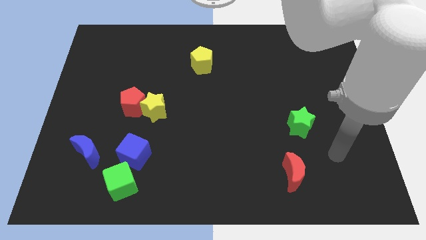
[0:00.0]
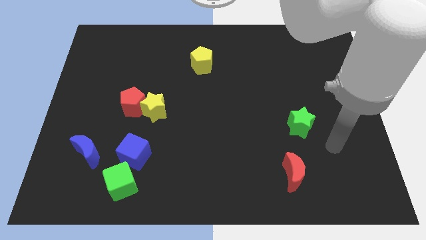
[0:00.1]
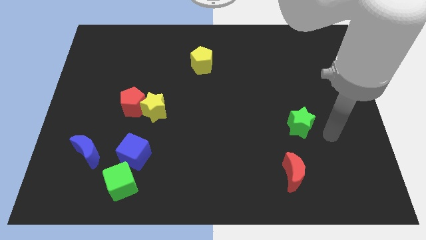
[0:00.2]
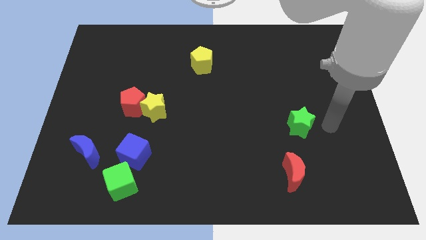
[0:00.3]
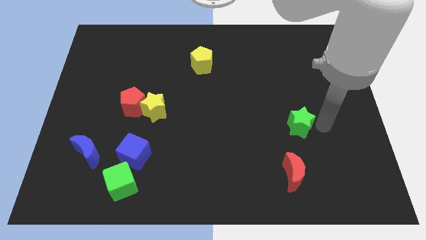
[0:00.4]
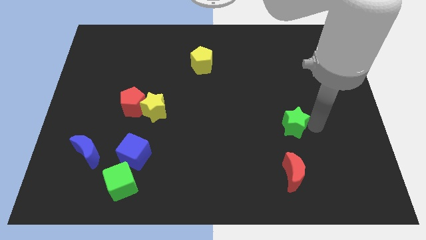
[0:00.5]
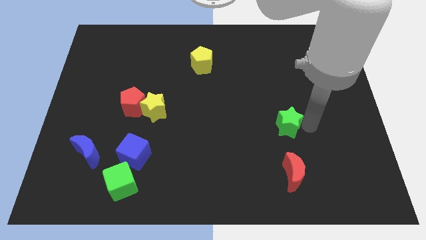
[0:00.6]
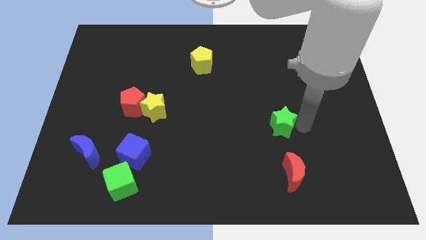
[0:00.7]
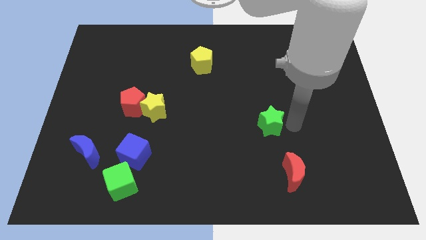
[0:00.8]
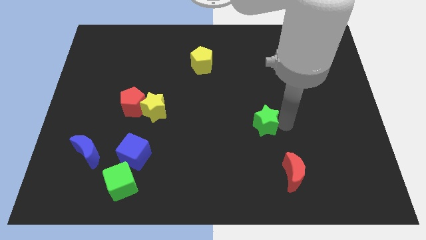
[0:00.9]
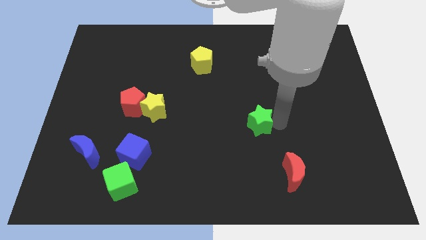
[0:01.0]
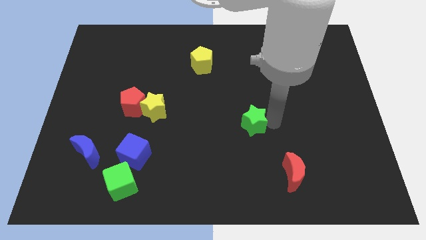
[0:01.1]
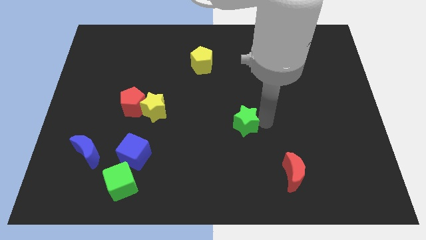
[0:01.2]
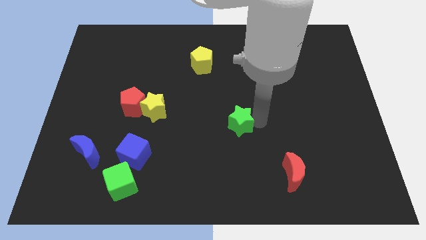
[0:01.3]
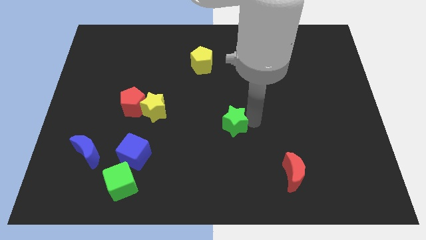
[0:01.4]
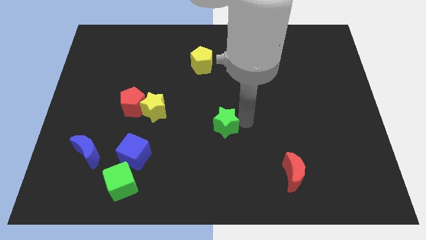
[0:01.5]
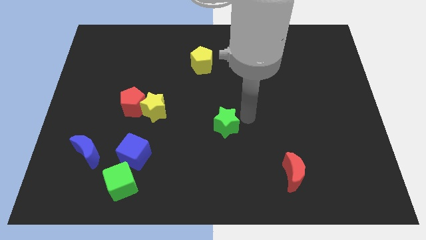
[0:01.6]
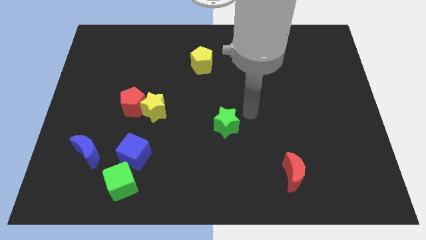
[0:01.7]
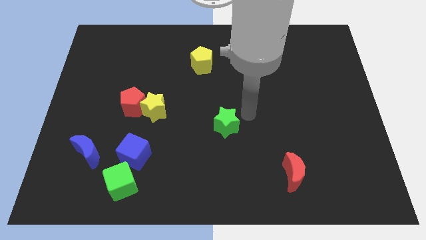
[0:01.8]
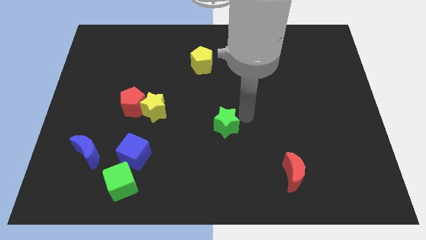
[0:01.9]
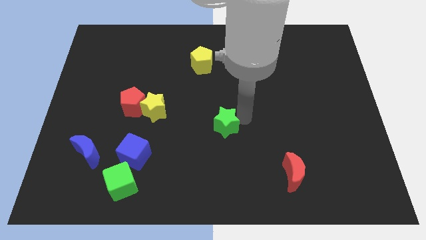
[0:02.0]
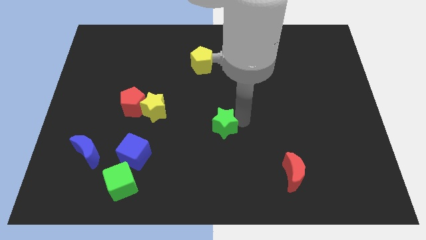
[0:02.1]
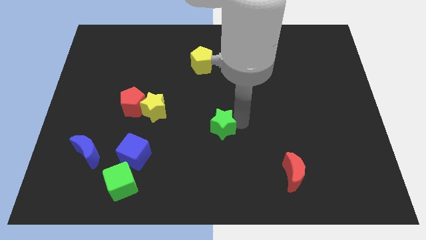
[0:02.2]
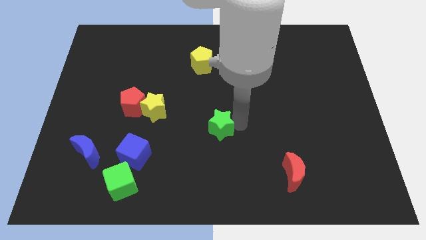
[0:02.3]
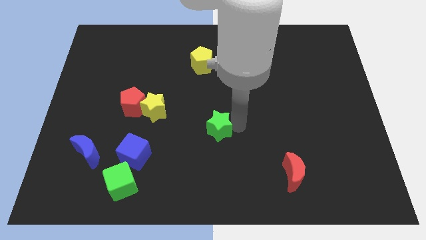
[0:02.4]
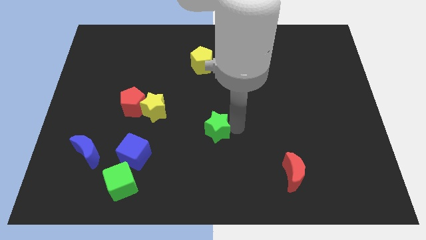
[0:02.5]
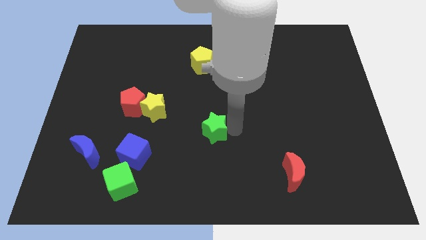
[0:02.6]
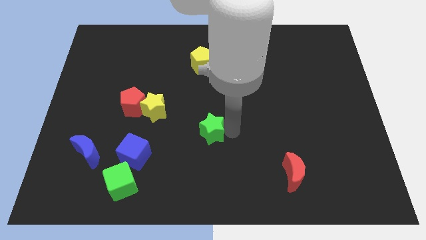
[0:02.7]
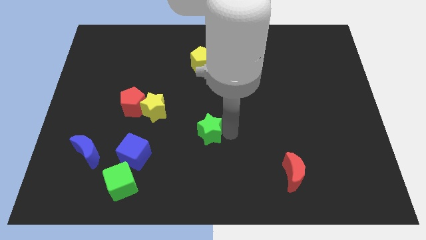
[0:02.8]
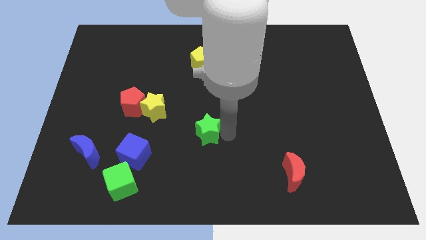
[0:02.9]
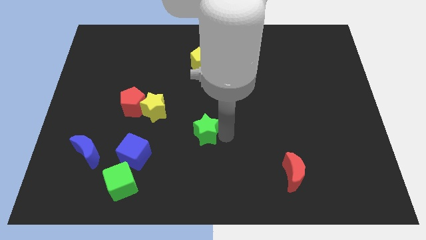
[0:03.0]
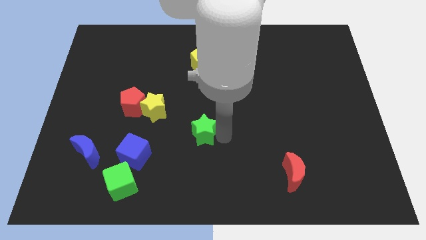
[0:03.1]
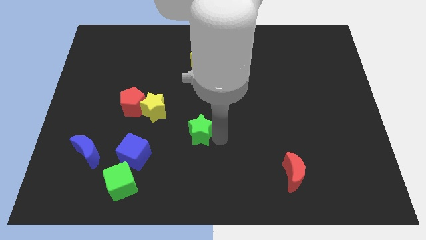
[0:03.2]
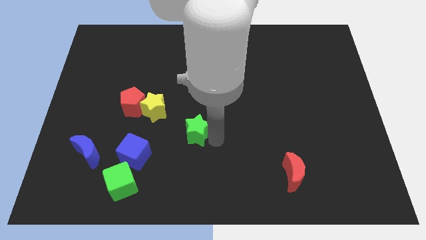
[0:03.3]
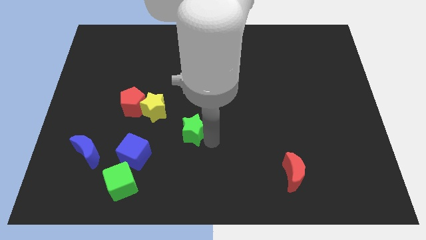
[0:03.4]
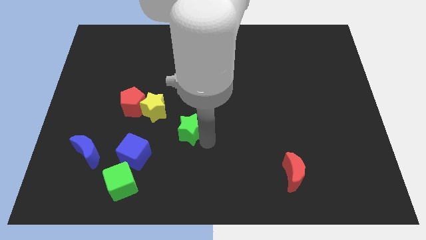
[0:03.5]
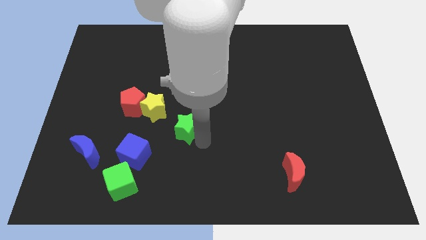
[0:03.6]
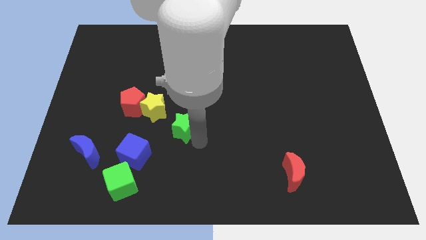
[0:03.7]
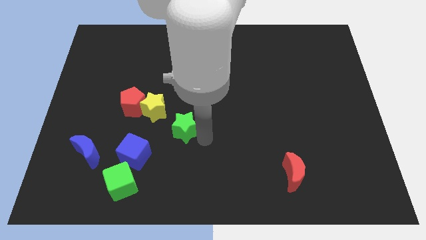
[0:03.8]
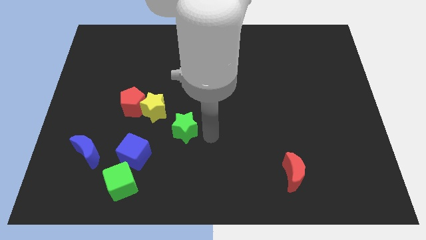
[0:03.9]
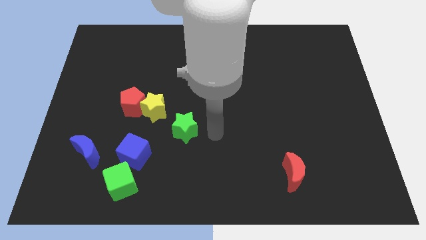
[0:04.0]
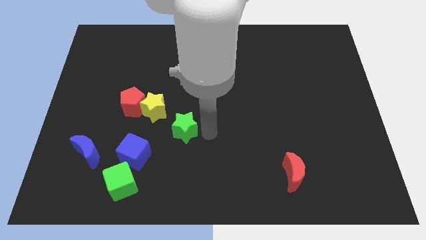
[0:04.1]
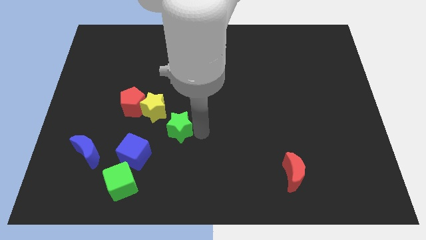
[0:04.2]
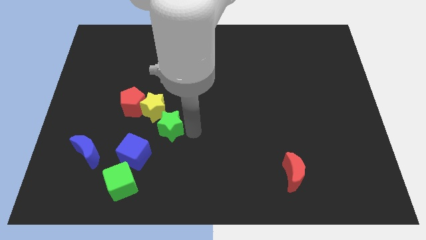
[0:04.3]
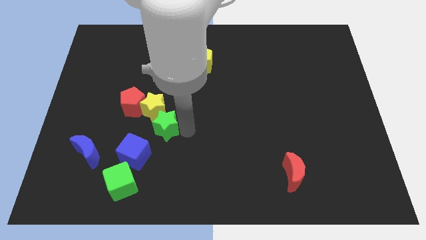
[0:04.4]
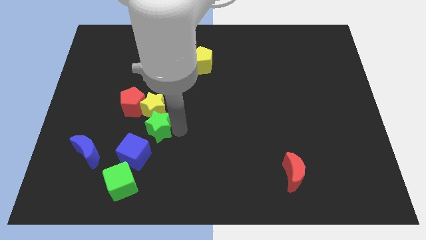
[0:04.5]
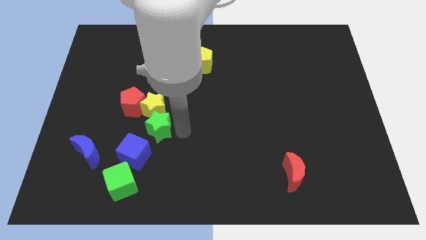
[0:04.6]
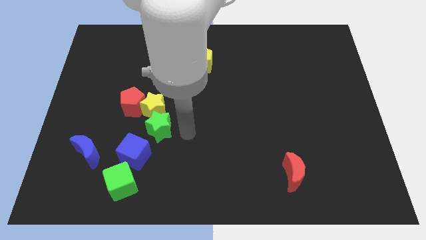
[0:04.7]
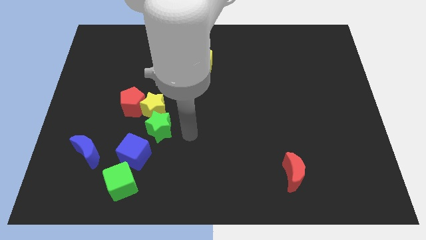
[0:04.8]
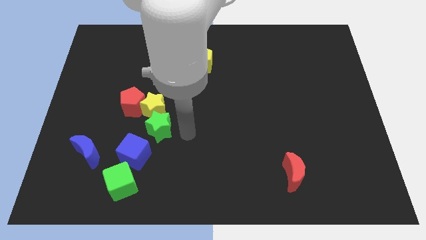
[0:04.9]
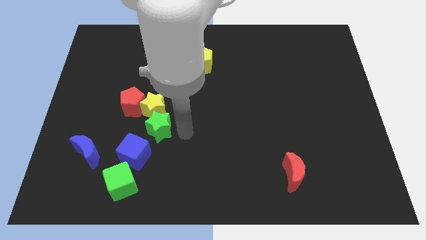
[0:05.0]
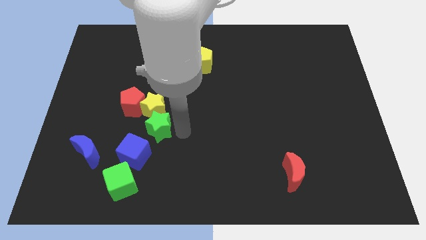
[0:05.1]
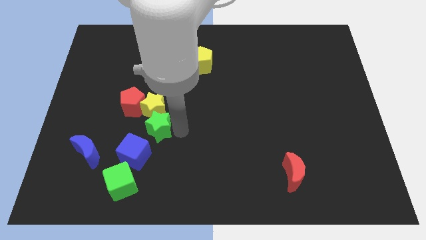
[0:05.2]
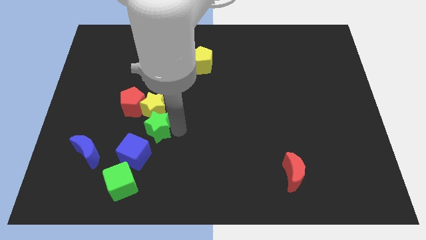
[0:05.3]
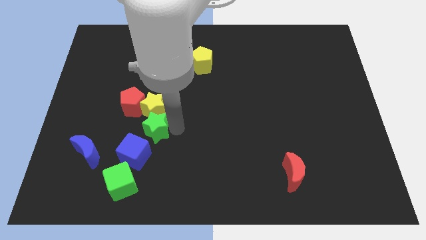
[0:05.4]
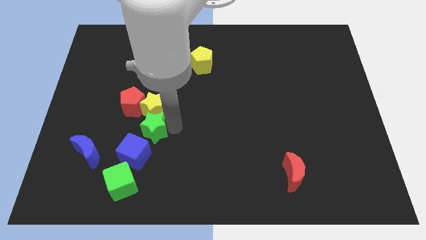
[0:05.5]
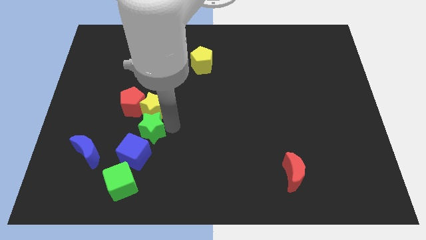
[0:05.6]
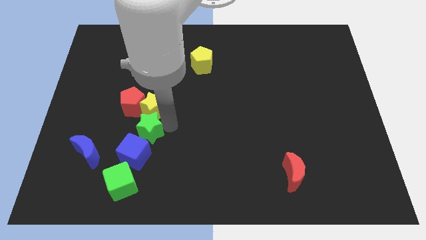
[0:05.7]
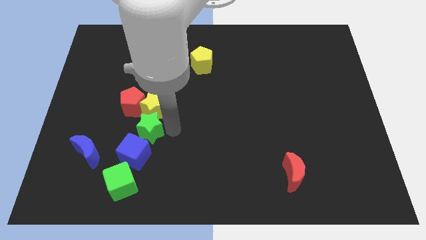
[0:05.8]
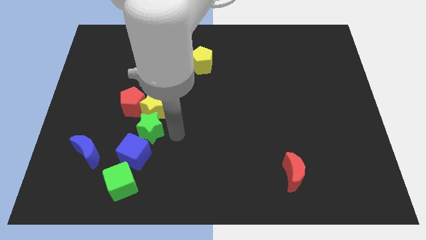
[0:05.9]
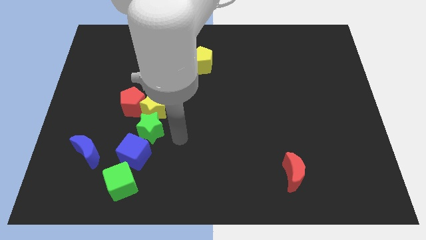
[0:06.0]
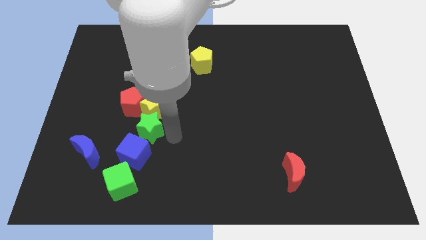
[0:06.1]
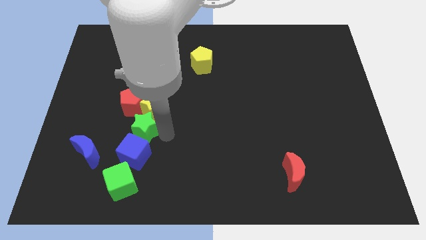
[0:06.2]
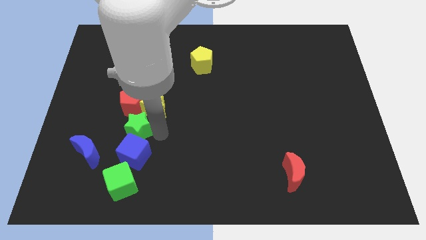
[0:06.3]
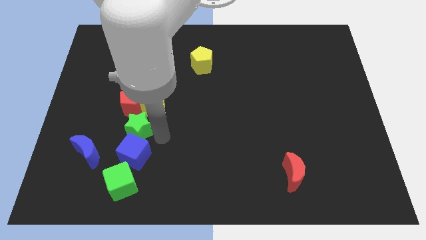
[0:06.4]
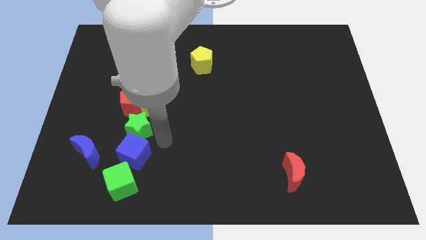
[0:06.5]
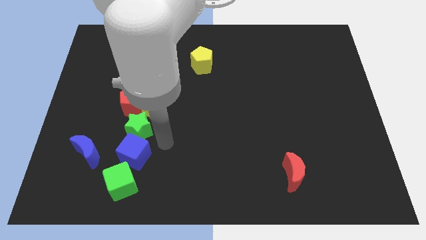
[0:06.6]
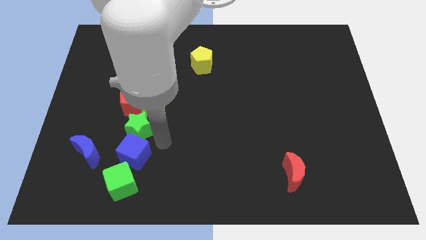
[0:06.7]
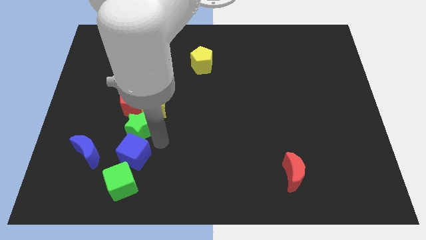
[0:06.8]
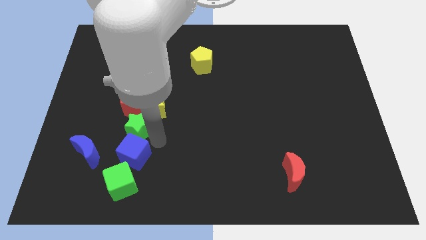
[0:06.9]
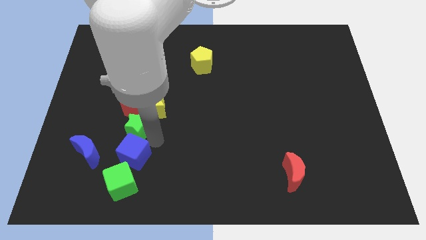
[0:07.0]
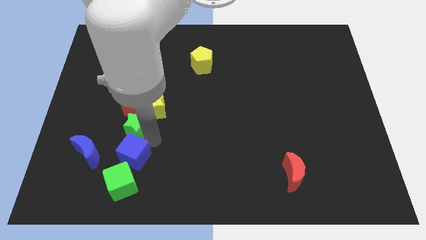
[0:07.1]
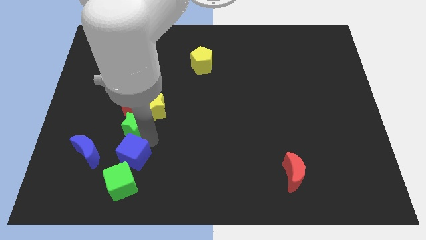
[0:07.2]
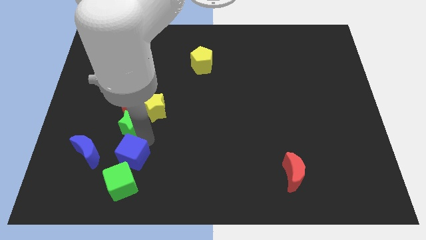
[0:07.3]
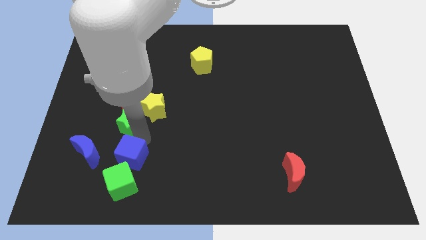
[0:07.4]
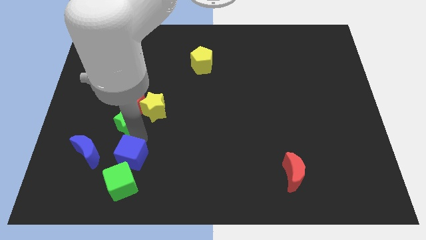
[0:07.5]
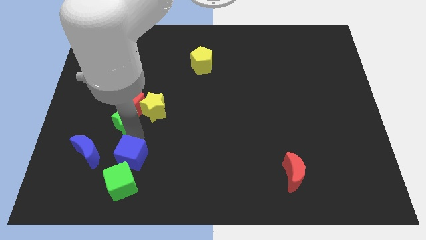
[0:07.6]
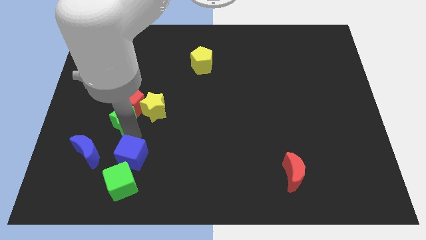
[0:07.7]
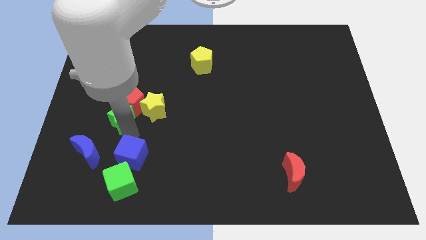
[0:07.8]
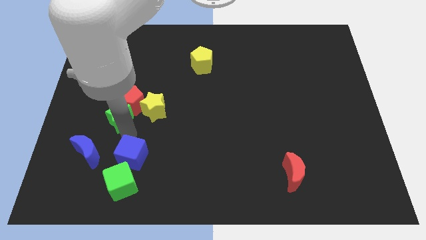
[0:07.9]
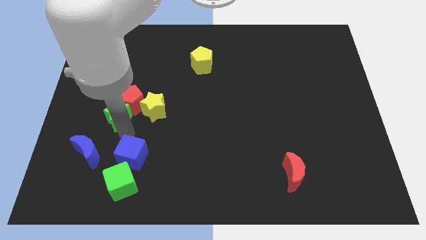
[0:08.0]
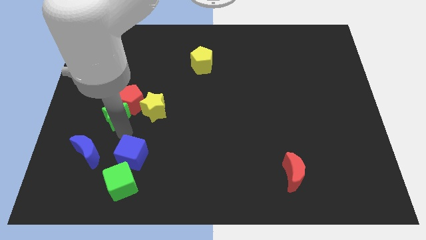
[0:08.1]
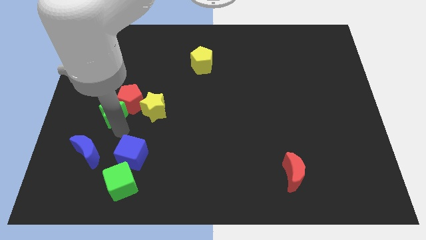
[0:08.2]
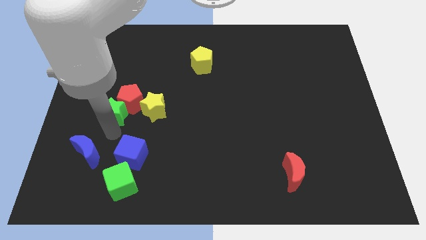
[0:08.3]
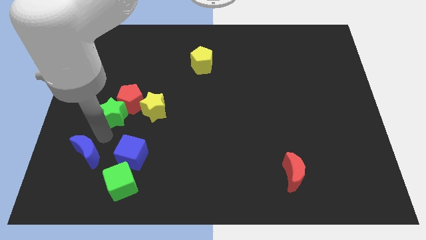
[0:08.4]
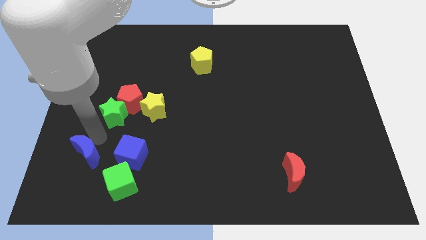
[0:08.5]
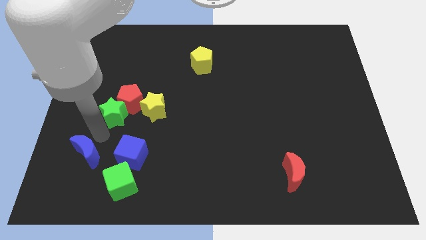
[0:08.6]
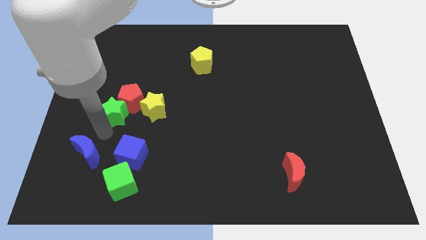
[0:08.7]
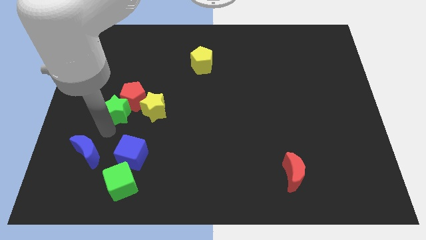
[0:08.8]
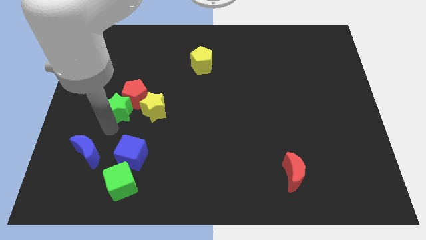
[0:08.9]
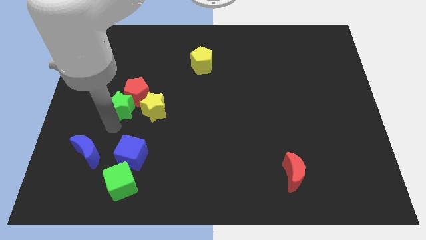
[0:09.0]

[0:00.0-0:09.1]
slide the green star diagonally up and to the left of the yellow star
